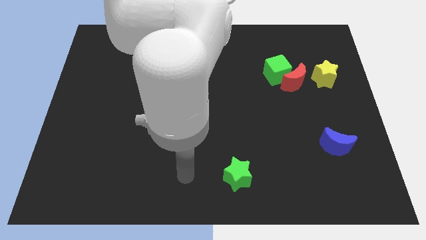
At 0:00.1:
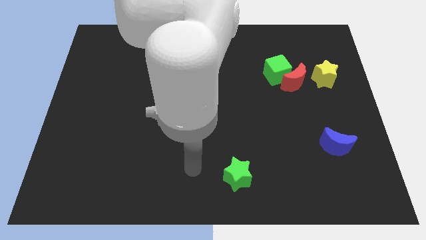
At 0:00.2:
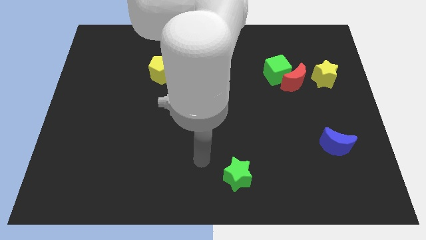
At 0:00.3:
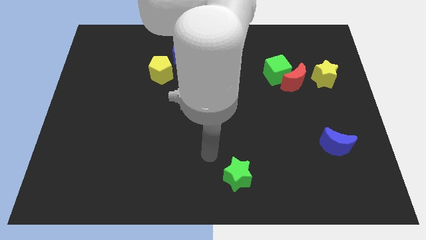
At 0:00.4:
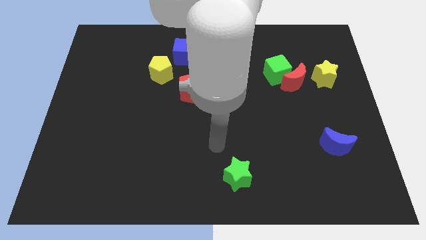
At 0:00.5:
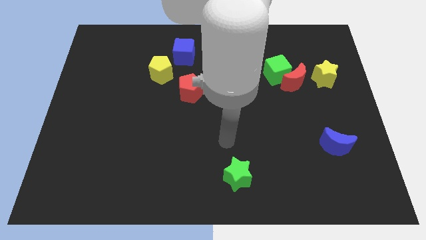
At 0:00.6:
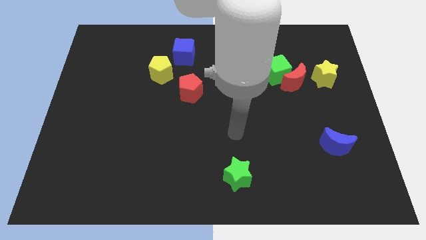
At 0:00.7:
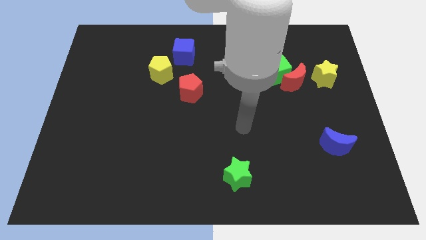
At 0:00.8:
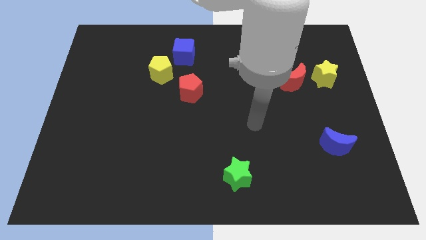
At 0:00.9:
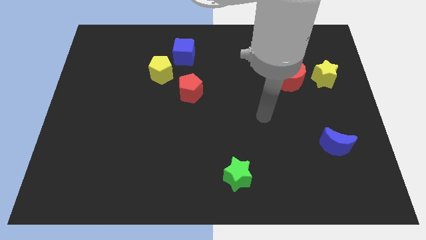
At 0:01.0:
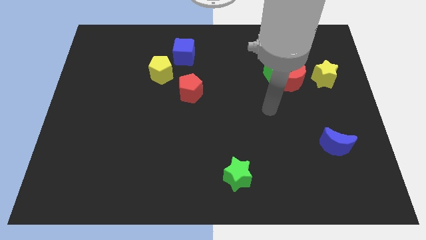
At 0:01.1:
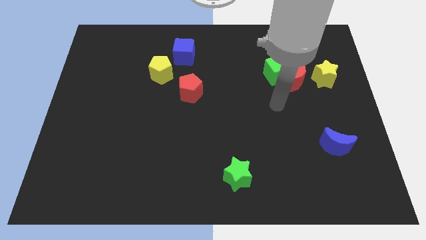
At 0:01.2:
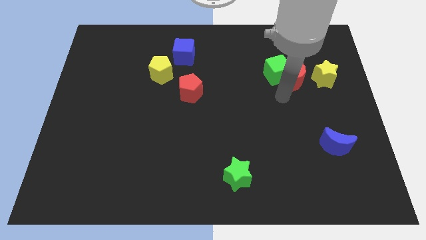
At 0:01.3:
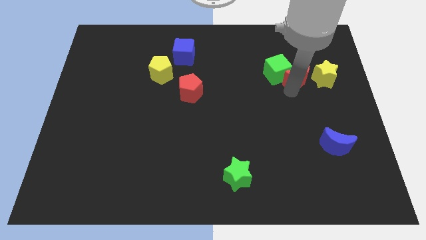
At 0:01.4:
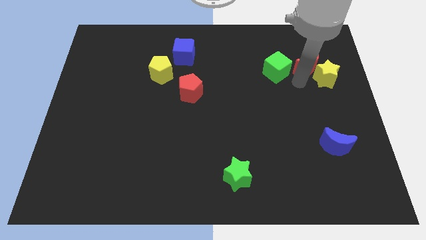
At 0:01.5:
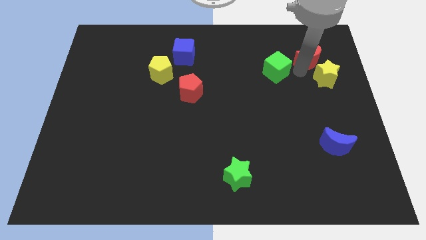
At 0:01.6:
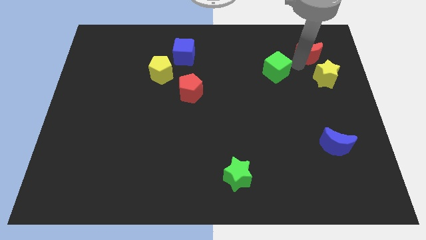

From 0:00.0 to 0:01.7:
pull the green cube apart from the red moon

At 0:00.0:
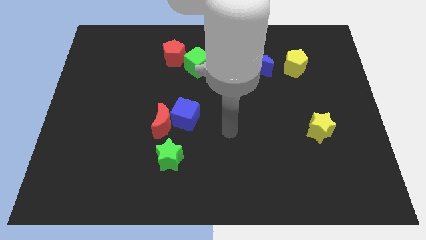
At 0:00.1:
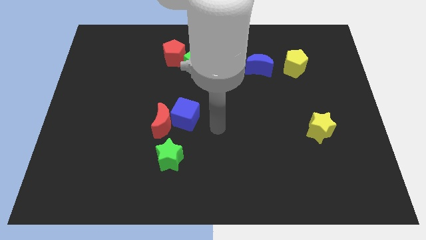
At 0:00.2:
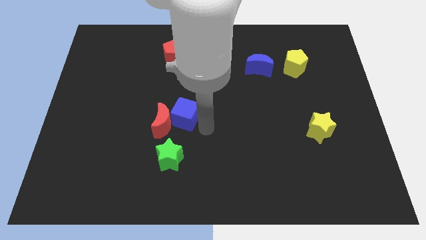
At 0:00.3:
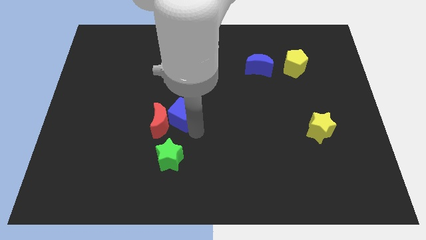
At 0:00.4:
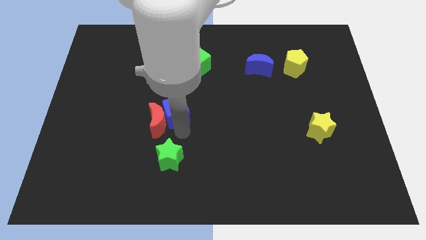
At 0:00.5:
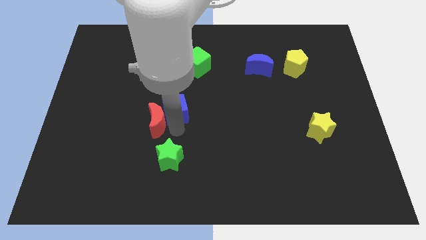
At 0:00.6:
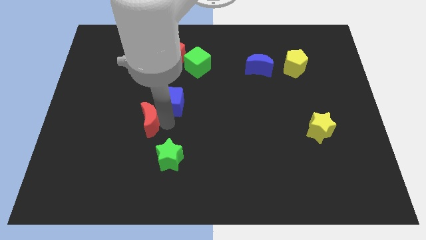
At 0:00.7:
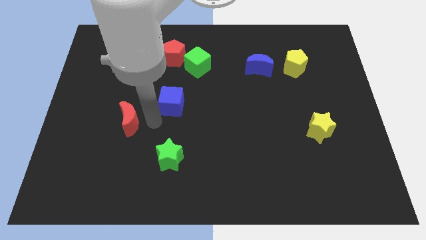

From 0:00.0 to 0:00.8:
pull the blue cube apart from the red moon

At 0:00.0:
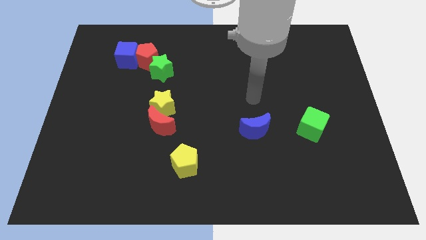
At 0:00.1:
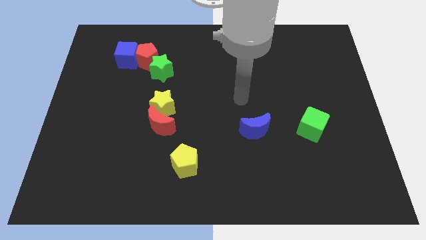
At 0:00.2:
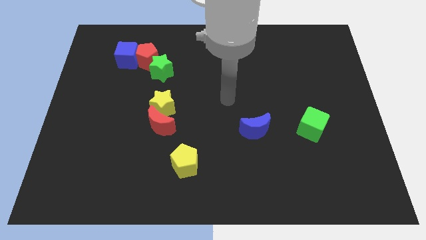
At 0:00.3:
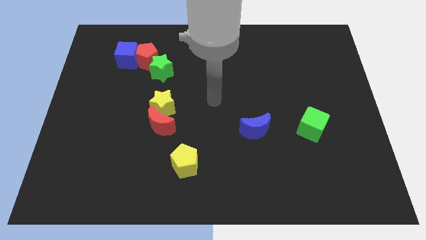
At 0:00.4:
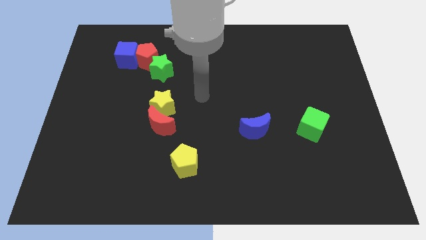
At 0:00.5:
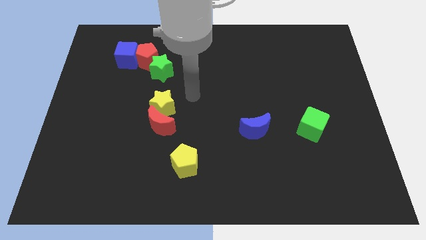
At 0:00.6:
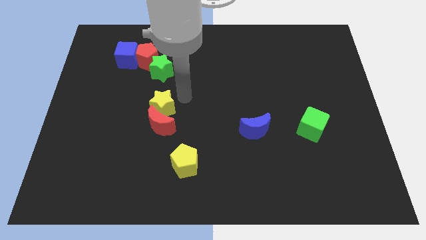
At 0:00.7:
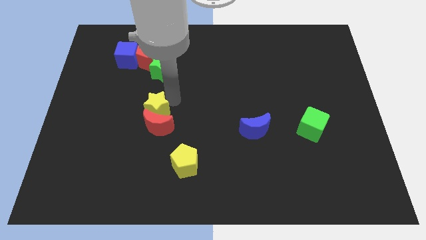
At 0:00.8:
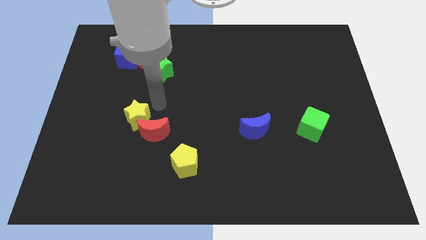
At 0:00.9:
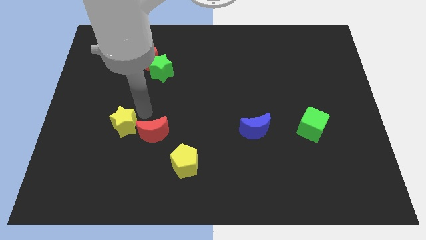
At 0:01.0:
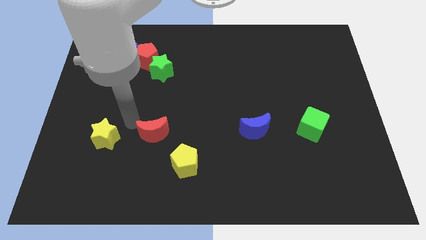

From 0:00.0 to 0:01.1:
separate the red moon from the yellow star

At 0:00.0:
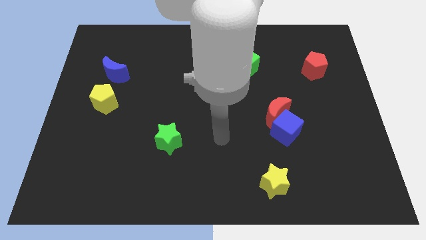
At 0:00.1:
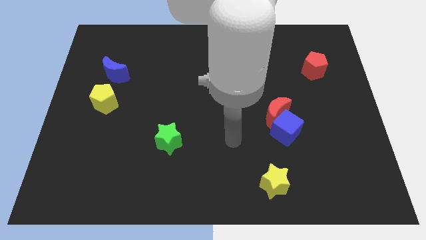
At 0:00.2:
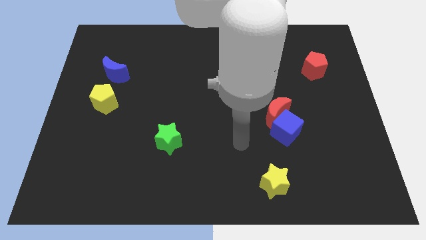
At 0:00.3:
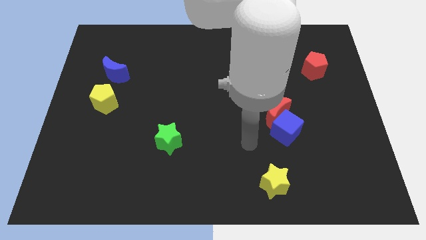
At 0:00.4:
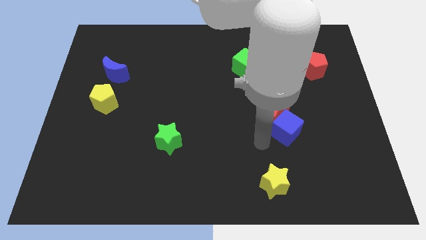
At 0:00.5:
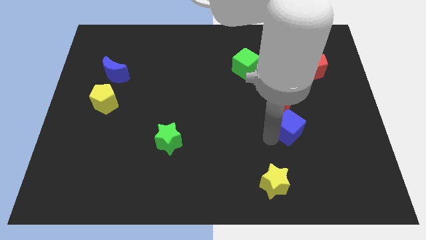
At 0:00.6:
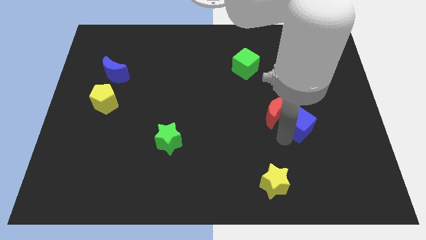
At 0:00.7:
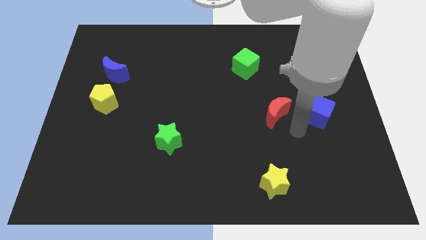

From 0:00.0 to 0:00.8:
separate the red moon from the blue cube

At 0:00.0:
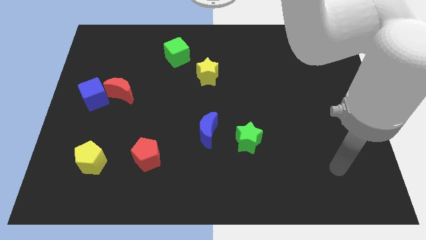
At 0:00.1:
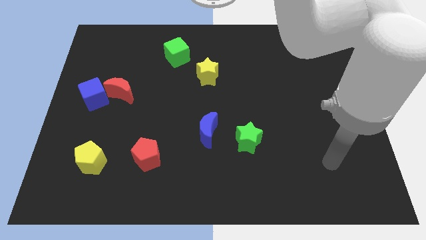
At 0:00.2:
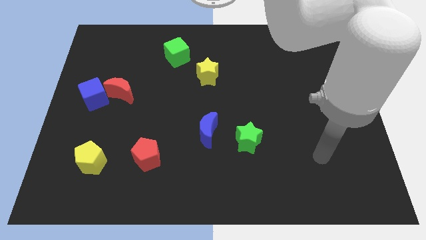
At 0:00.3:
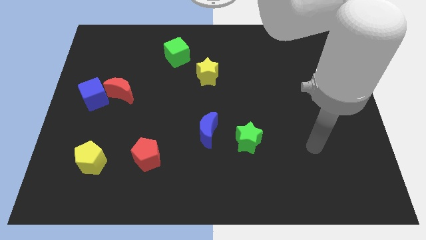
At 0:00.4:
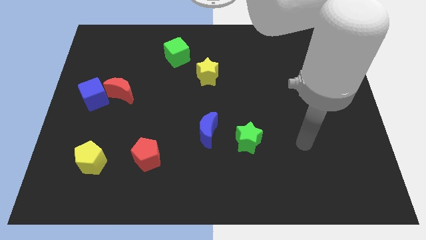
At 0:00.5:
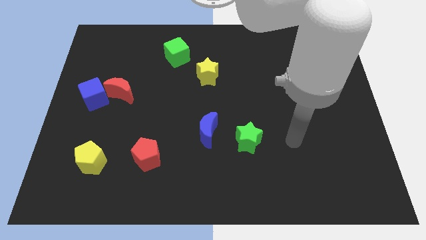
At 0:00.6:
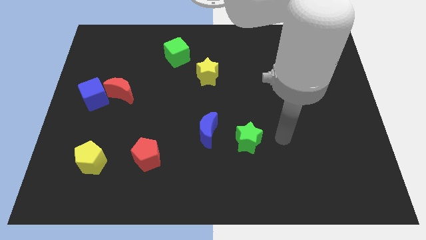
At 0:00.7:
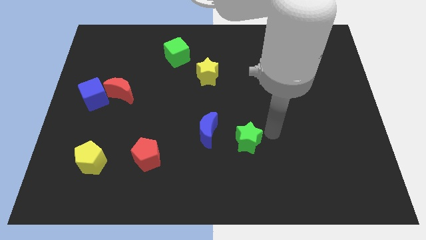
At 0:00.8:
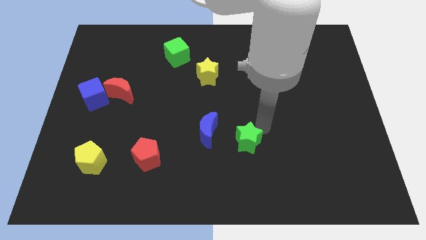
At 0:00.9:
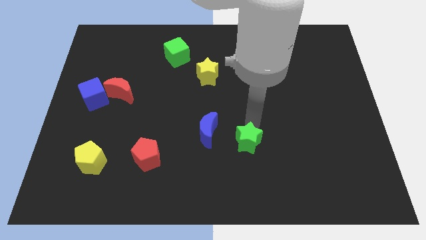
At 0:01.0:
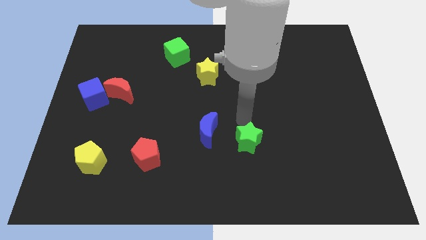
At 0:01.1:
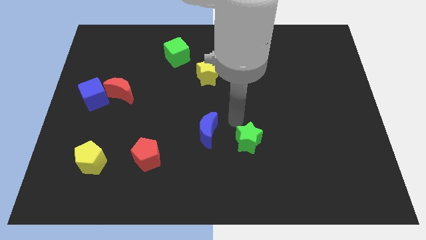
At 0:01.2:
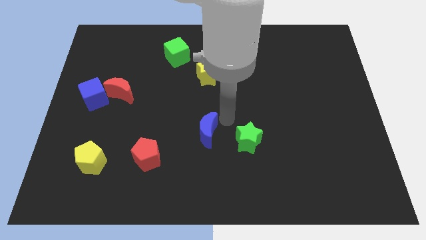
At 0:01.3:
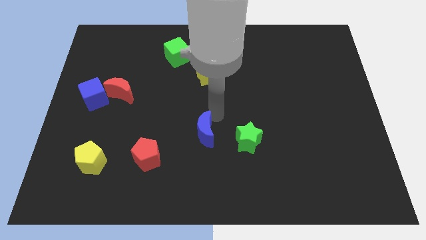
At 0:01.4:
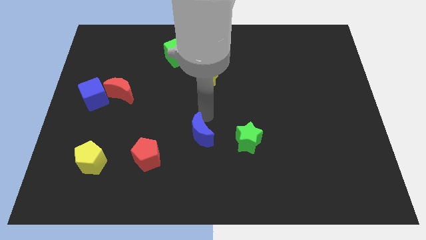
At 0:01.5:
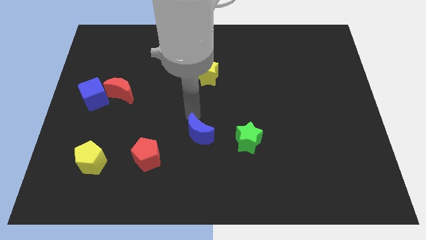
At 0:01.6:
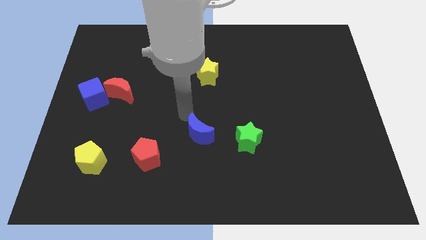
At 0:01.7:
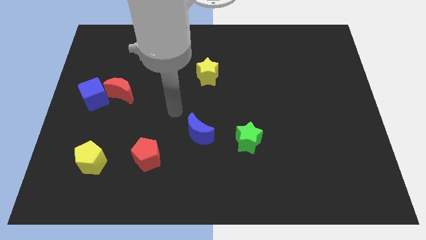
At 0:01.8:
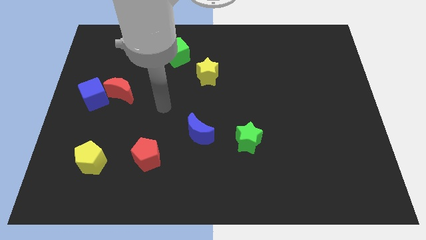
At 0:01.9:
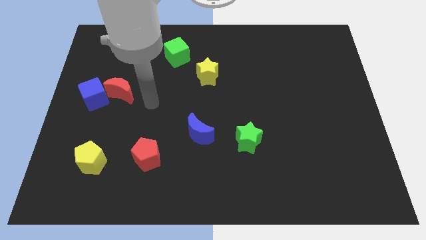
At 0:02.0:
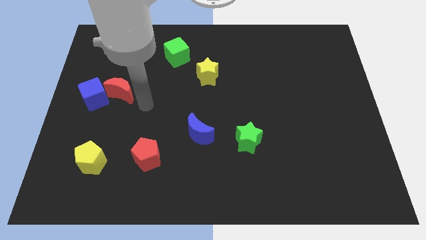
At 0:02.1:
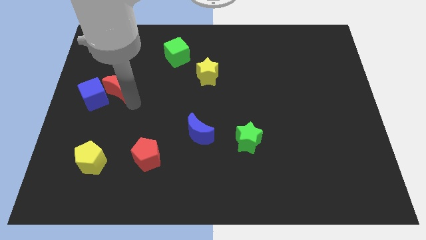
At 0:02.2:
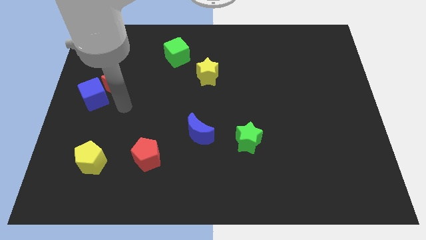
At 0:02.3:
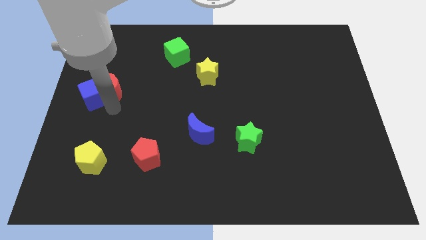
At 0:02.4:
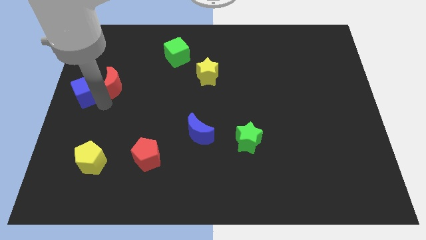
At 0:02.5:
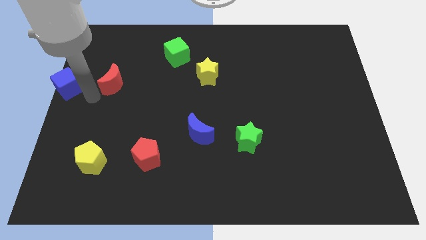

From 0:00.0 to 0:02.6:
move the red moon away from the blue cube

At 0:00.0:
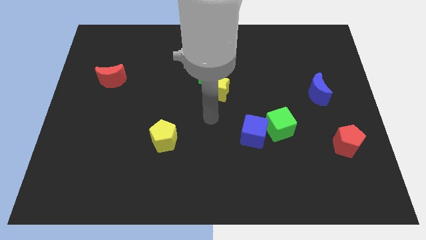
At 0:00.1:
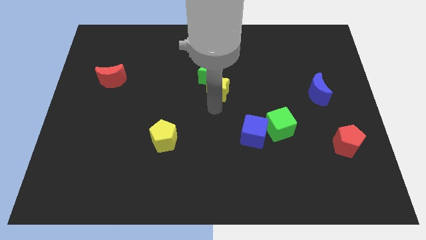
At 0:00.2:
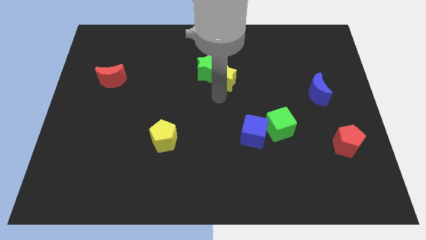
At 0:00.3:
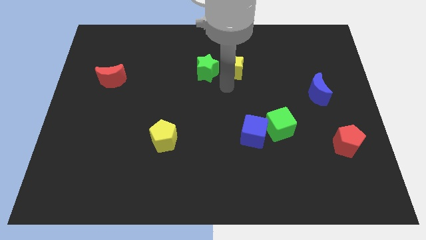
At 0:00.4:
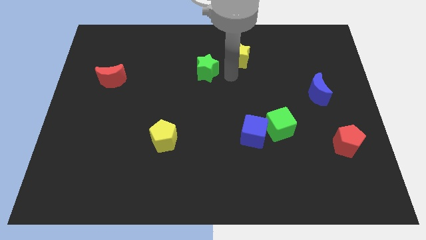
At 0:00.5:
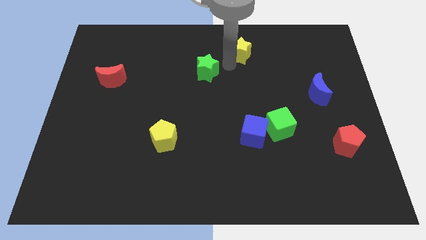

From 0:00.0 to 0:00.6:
move the green star away from the yellow star

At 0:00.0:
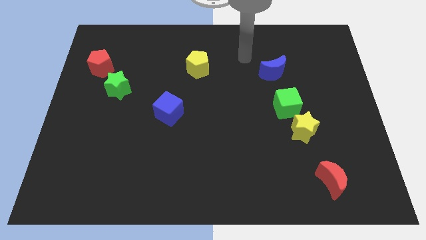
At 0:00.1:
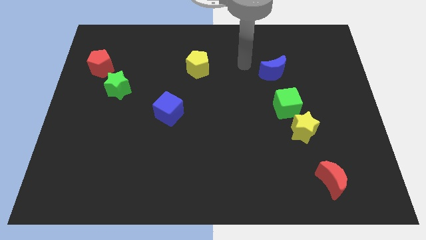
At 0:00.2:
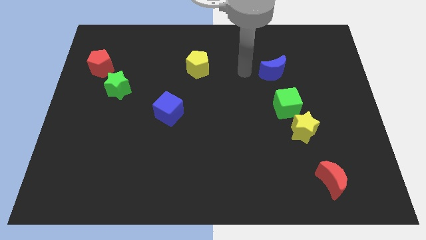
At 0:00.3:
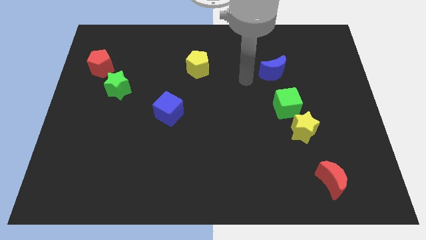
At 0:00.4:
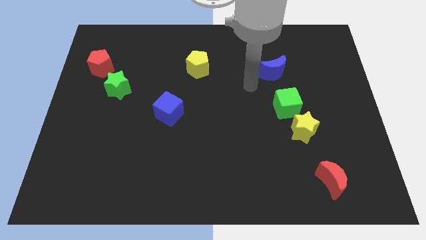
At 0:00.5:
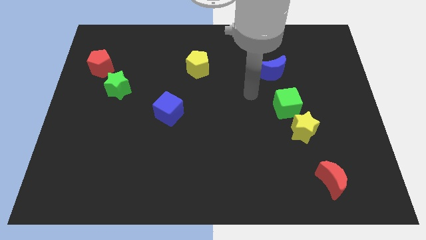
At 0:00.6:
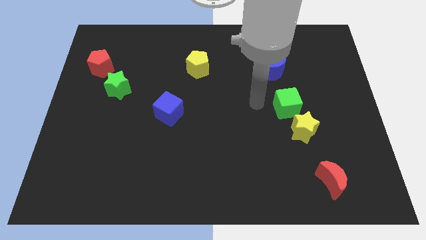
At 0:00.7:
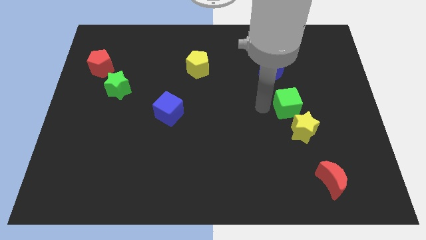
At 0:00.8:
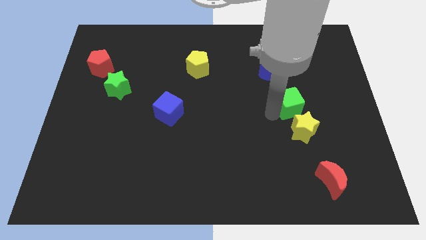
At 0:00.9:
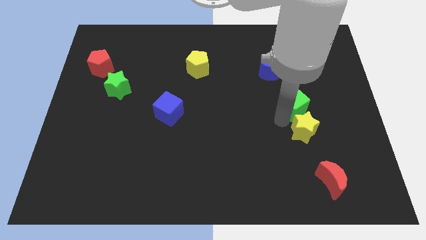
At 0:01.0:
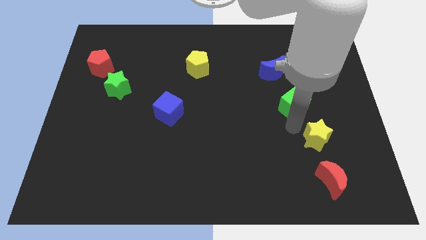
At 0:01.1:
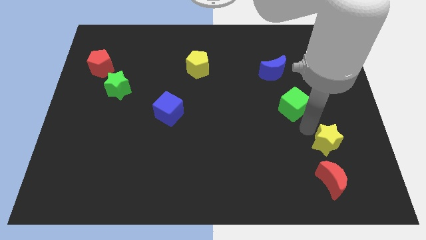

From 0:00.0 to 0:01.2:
pull the green cube apart from the yellow star

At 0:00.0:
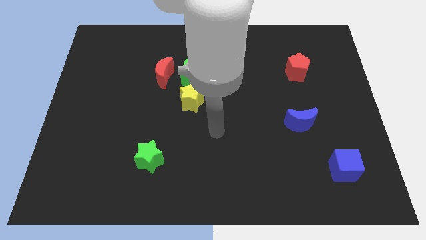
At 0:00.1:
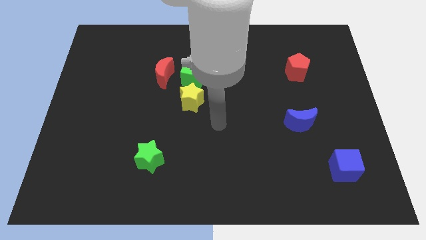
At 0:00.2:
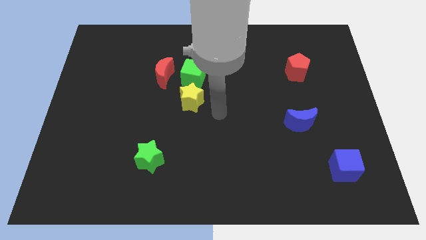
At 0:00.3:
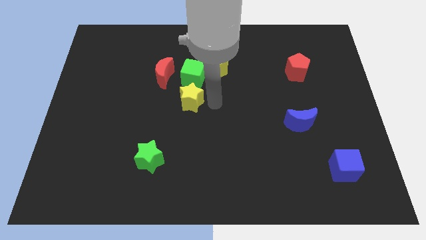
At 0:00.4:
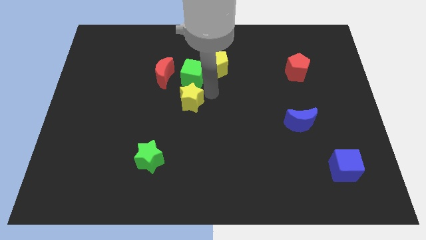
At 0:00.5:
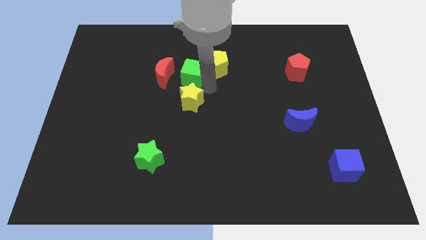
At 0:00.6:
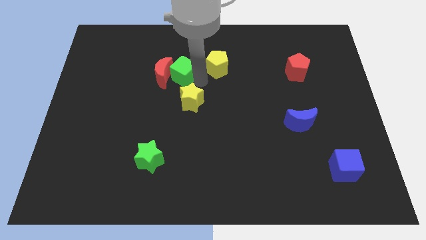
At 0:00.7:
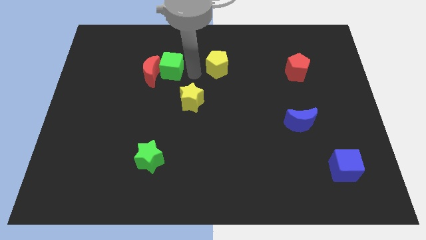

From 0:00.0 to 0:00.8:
move the yellow pentagon away from the green cube
